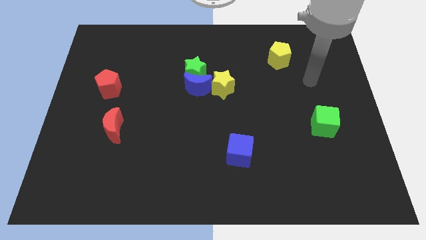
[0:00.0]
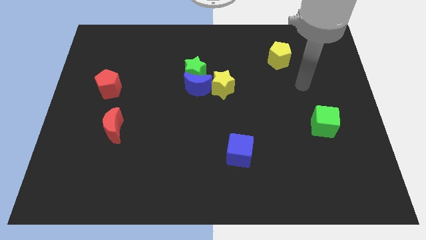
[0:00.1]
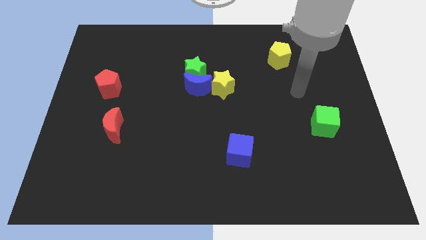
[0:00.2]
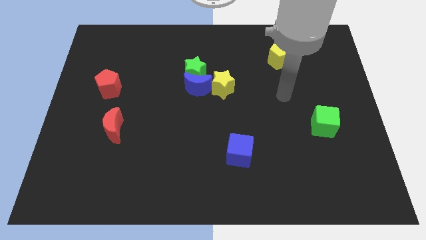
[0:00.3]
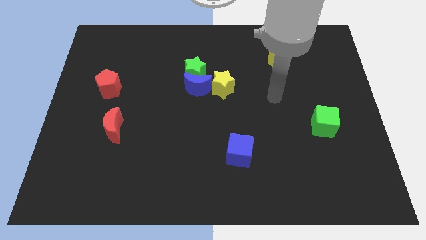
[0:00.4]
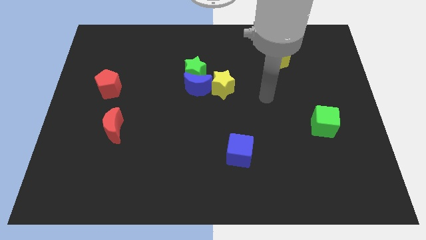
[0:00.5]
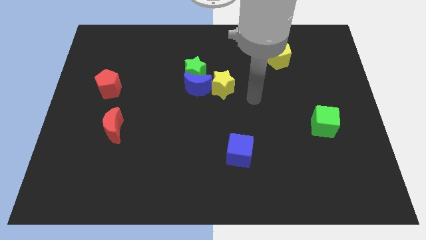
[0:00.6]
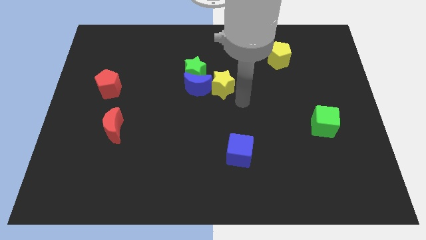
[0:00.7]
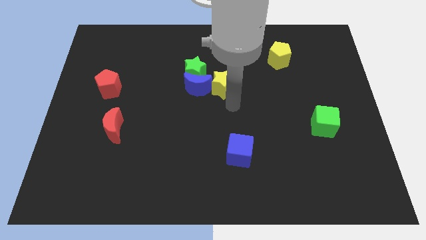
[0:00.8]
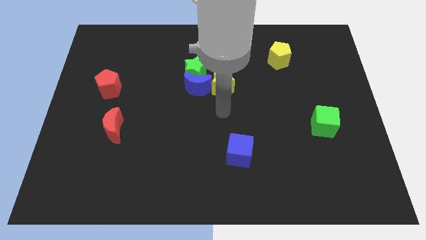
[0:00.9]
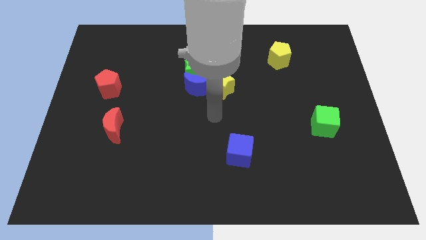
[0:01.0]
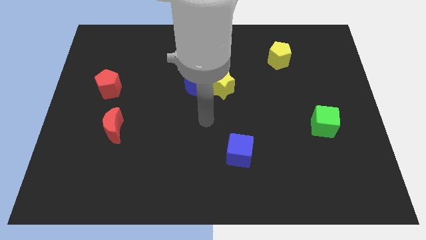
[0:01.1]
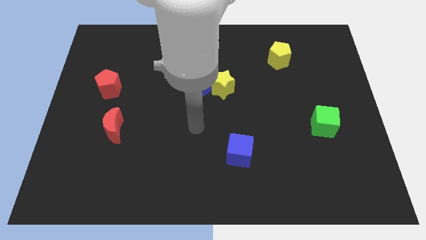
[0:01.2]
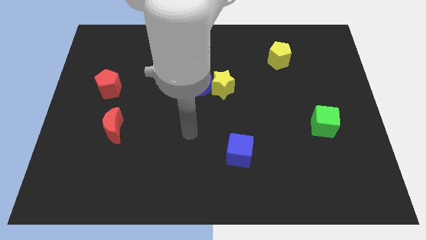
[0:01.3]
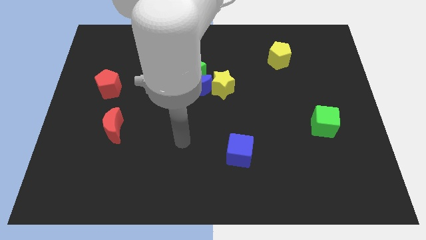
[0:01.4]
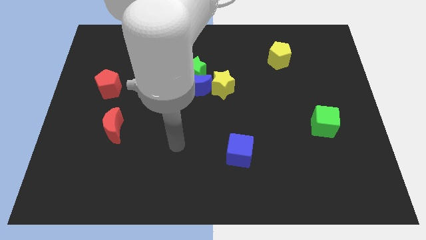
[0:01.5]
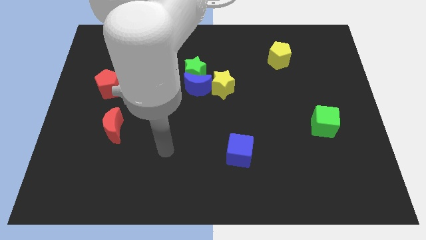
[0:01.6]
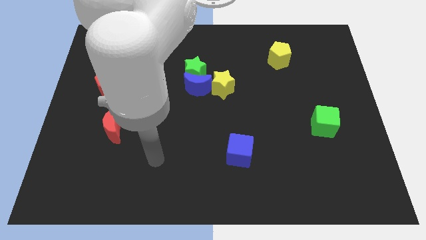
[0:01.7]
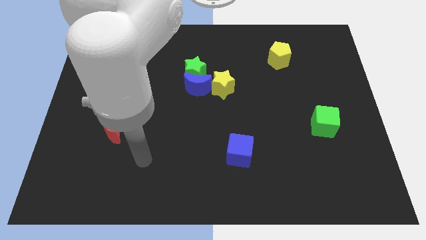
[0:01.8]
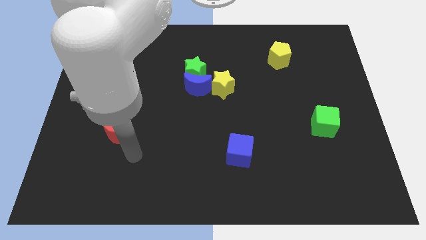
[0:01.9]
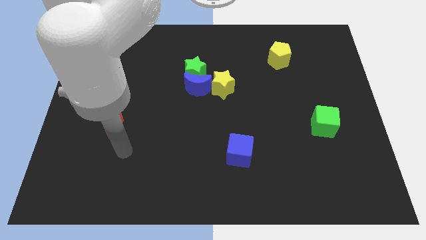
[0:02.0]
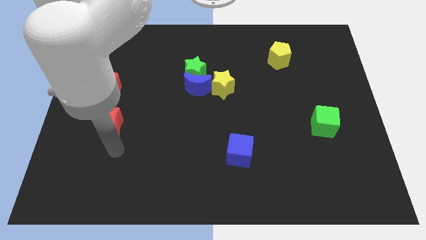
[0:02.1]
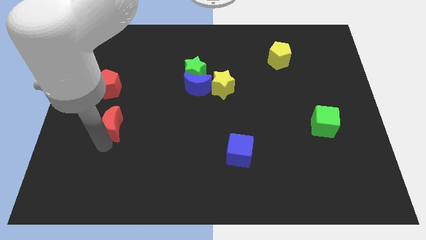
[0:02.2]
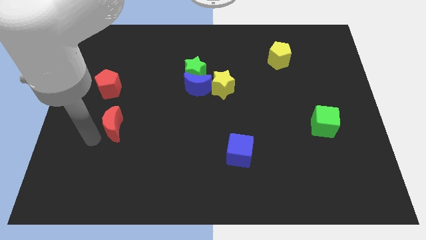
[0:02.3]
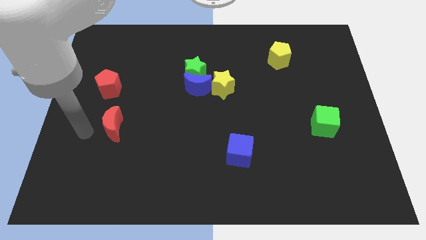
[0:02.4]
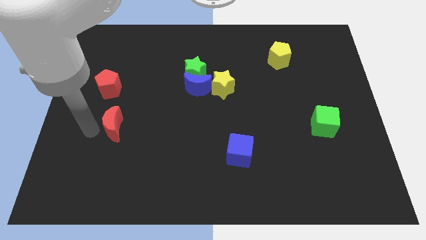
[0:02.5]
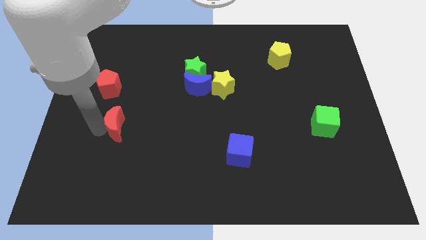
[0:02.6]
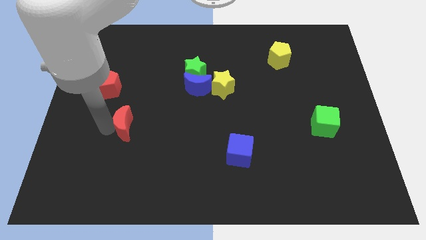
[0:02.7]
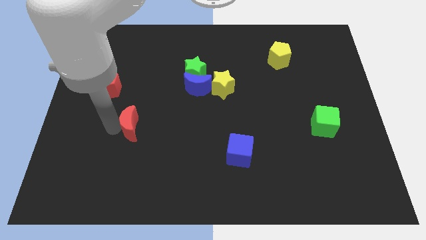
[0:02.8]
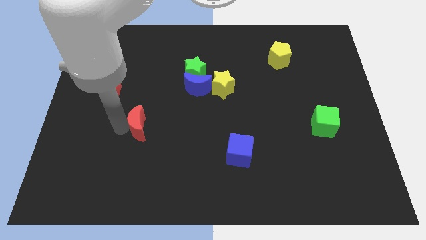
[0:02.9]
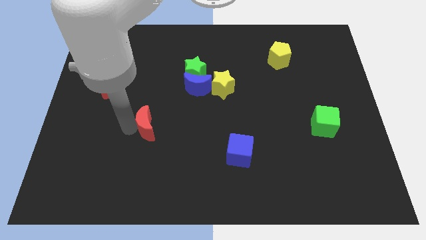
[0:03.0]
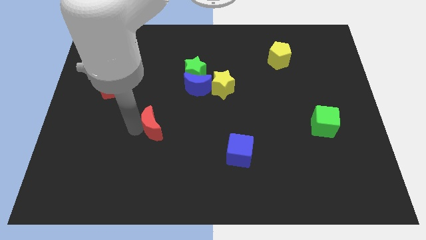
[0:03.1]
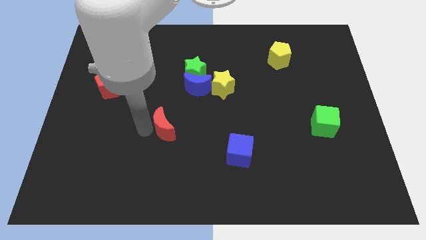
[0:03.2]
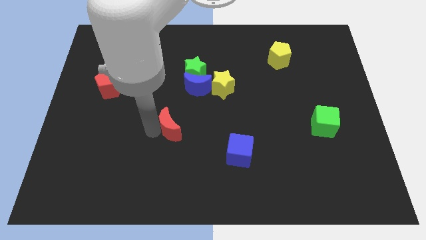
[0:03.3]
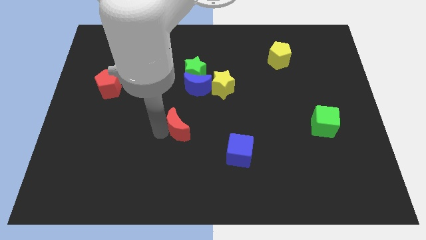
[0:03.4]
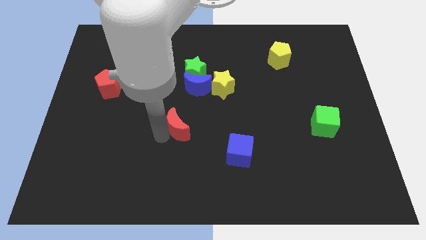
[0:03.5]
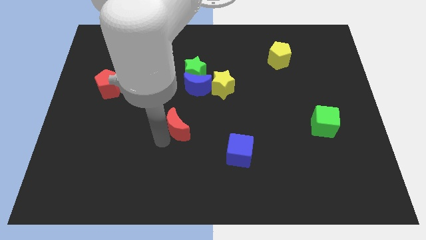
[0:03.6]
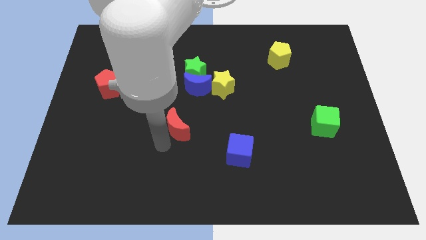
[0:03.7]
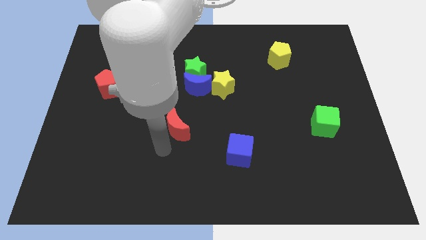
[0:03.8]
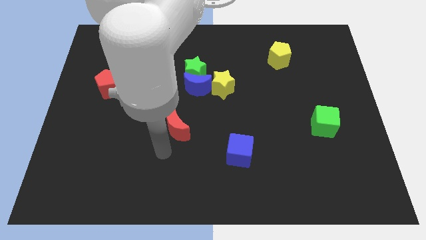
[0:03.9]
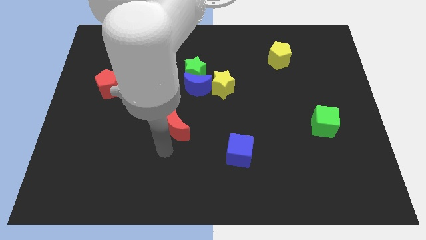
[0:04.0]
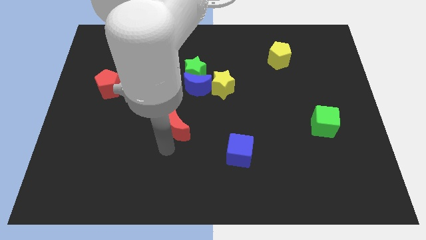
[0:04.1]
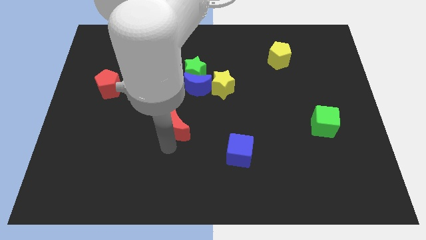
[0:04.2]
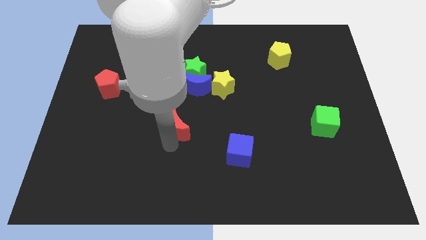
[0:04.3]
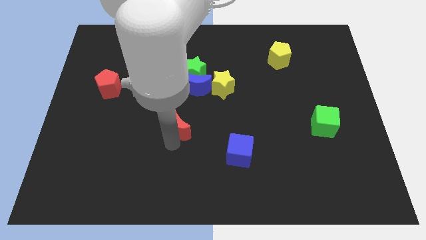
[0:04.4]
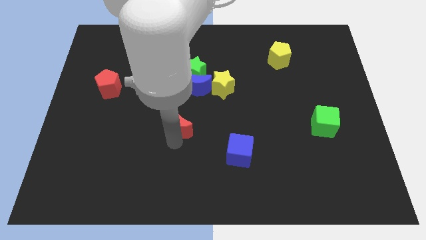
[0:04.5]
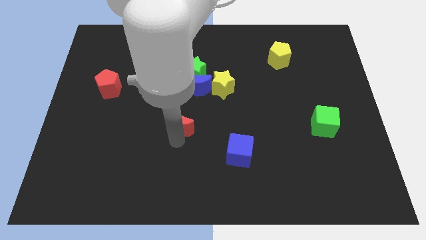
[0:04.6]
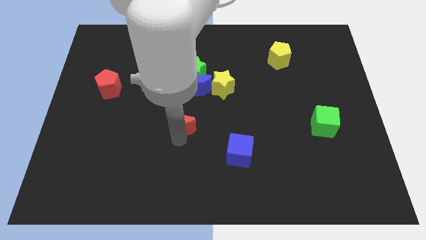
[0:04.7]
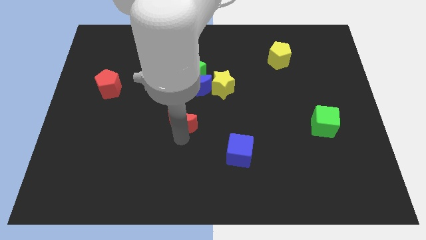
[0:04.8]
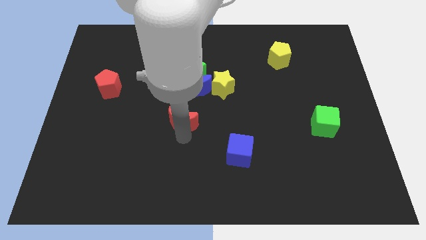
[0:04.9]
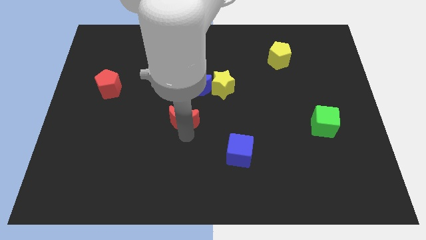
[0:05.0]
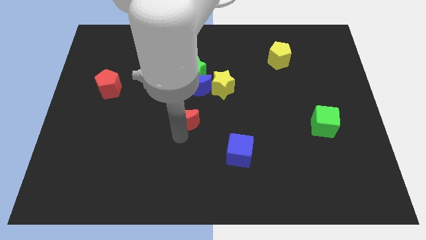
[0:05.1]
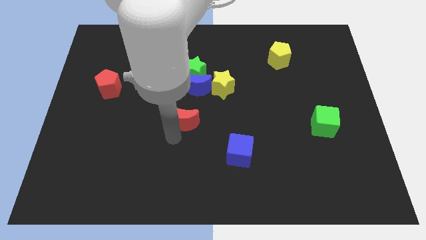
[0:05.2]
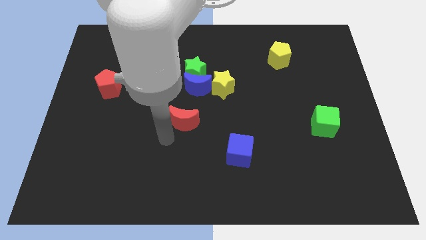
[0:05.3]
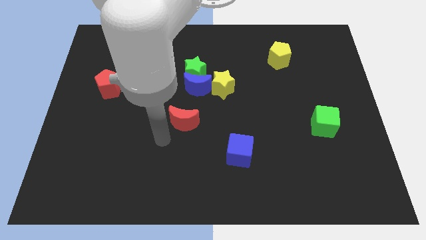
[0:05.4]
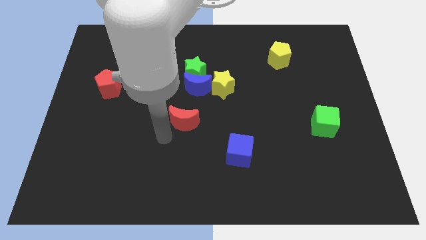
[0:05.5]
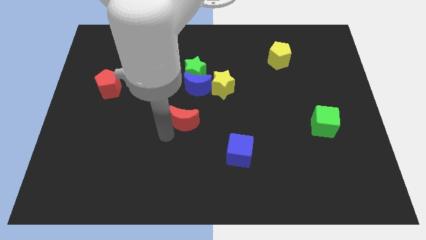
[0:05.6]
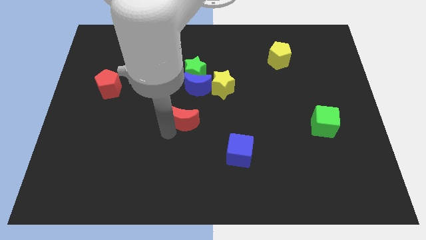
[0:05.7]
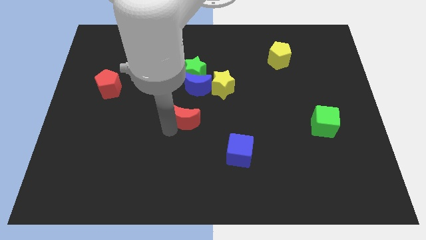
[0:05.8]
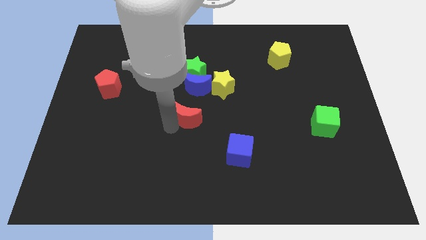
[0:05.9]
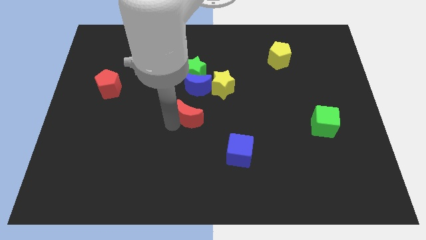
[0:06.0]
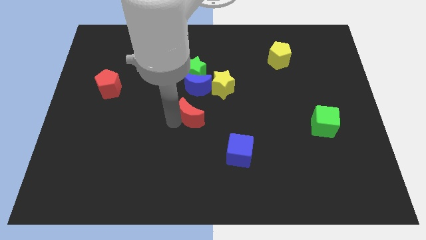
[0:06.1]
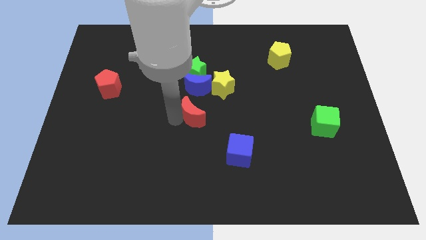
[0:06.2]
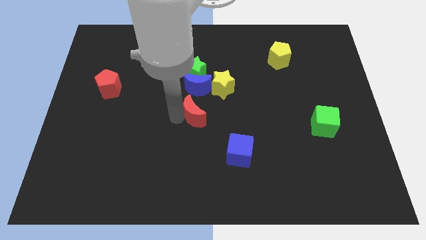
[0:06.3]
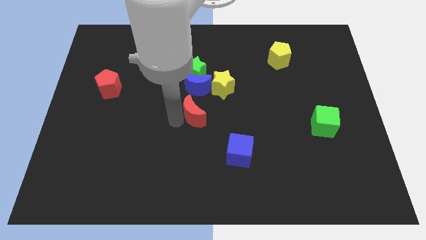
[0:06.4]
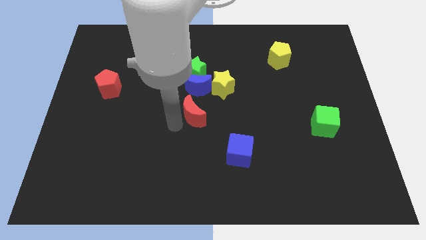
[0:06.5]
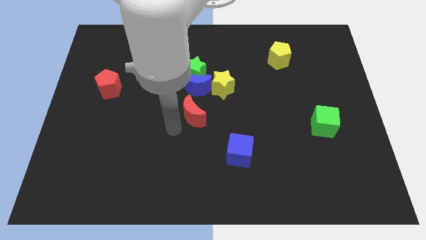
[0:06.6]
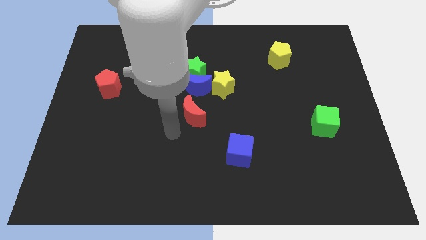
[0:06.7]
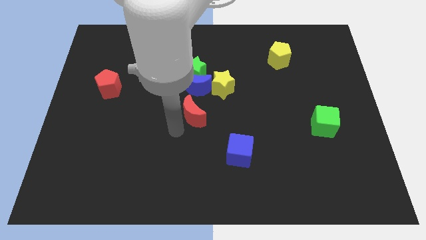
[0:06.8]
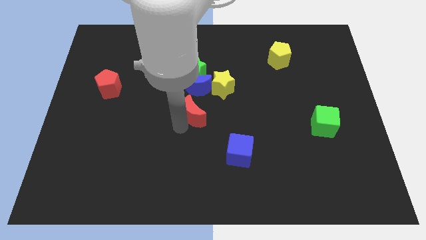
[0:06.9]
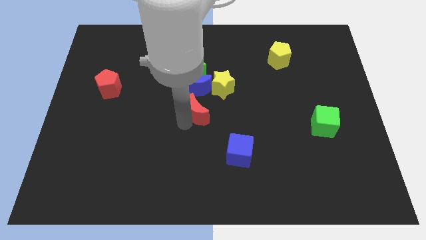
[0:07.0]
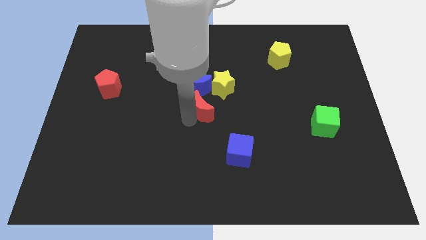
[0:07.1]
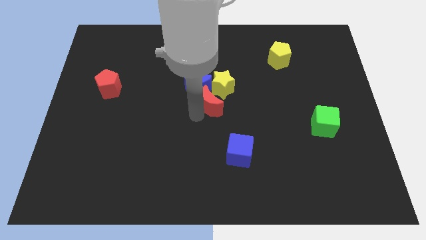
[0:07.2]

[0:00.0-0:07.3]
push the red moon to the yellow star
